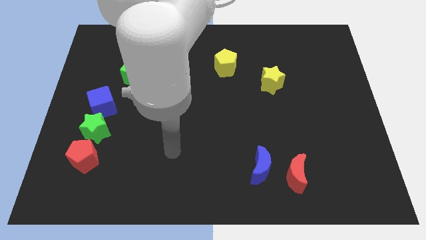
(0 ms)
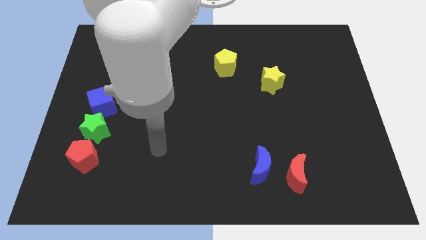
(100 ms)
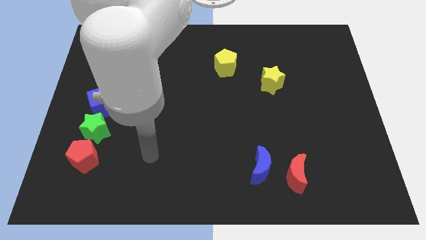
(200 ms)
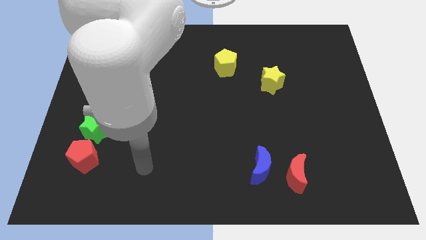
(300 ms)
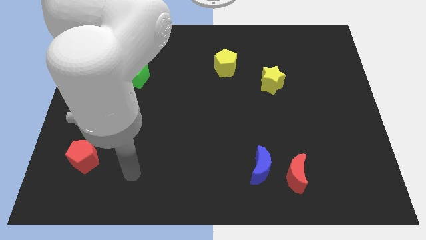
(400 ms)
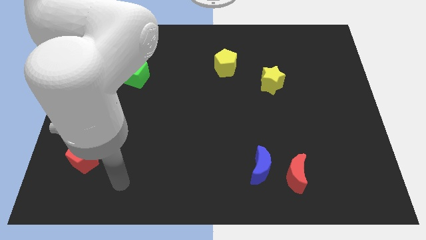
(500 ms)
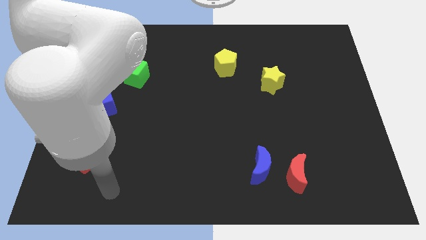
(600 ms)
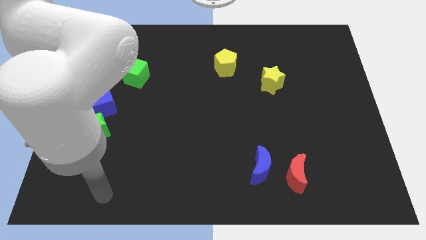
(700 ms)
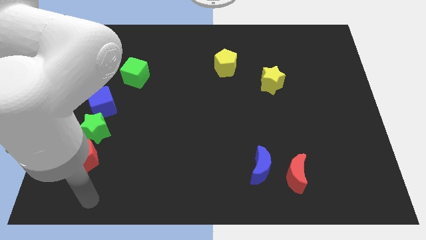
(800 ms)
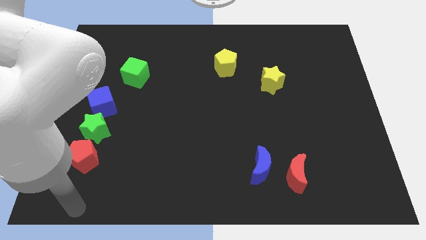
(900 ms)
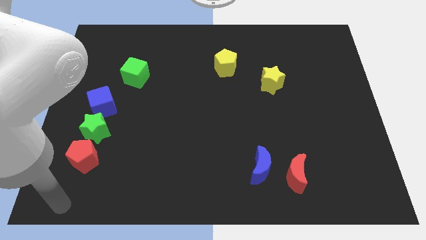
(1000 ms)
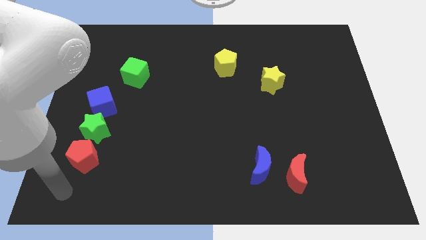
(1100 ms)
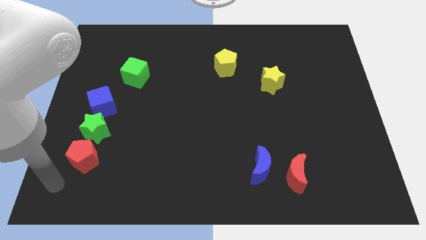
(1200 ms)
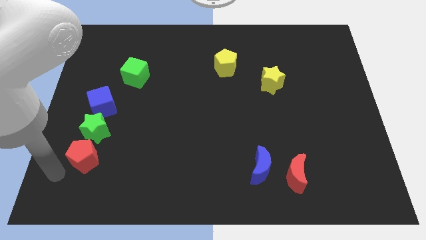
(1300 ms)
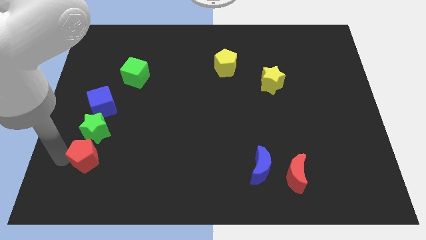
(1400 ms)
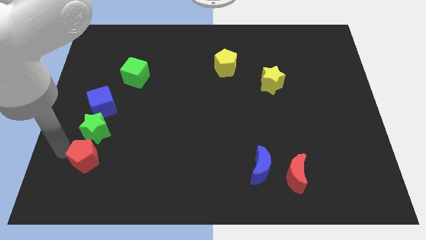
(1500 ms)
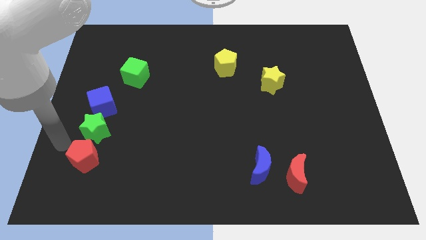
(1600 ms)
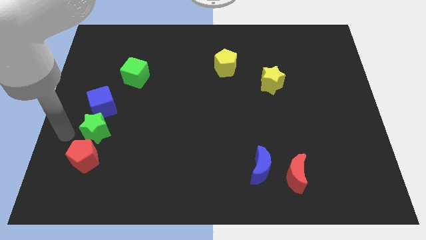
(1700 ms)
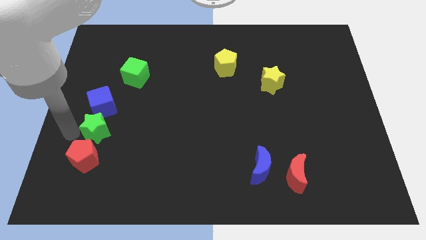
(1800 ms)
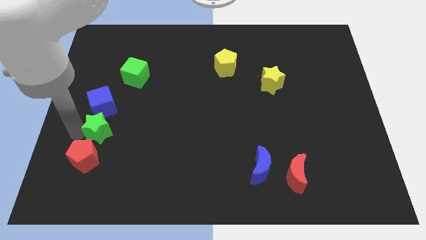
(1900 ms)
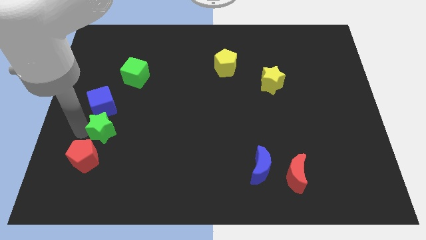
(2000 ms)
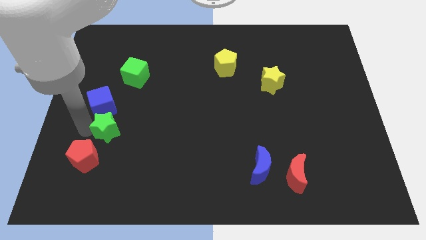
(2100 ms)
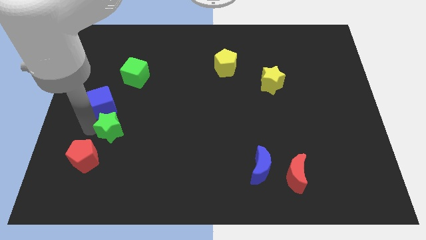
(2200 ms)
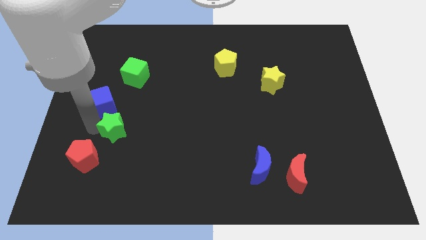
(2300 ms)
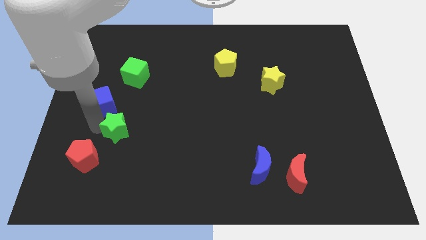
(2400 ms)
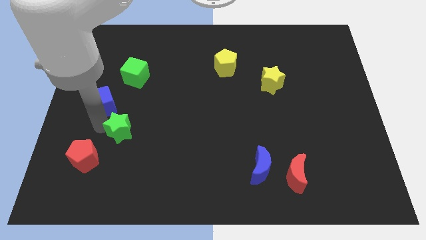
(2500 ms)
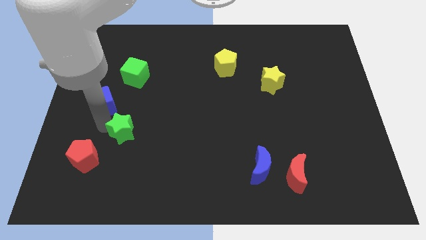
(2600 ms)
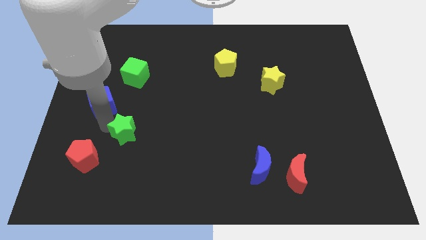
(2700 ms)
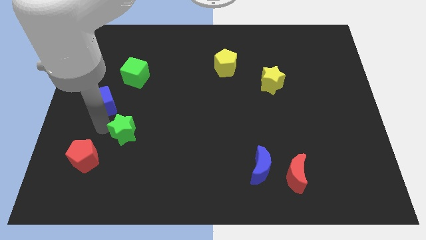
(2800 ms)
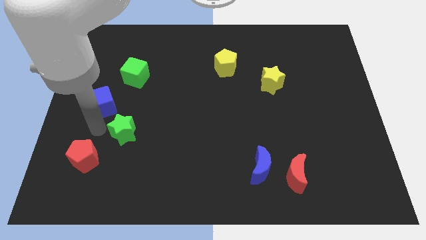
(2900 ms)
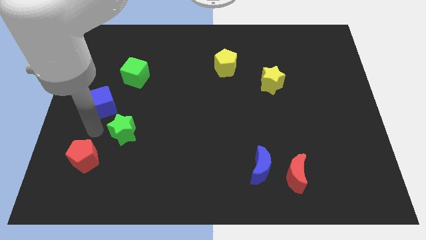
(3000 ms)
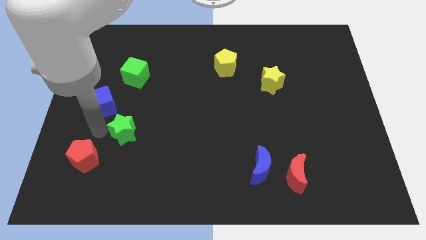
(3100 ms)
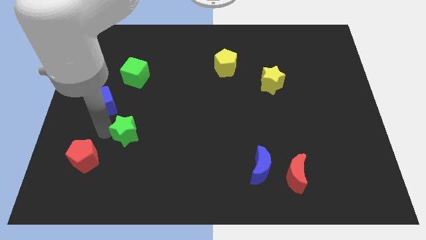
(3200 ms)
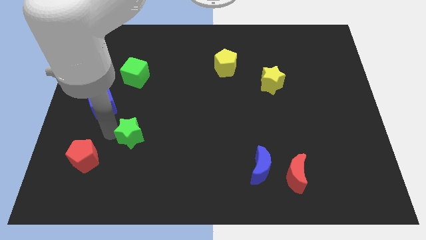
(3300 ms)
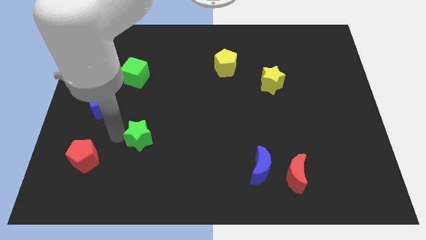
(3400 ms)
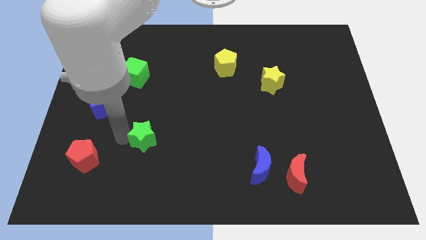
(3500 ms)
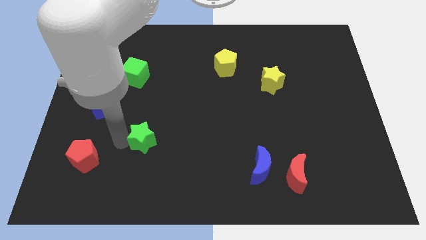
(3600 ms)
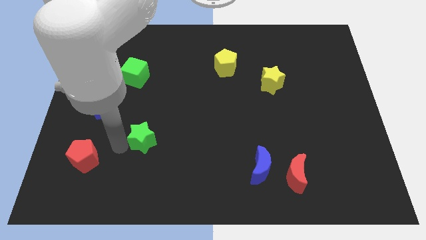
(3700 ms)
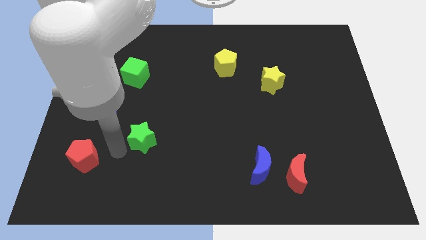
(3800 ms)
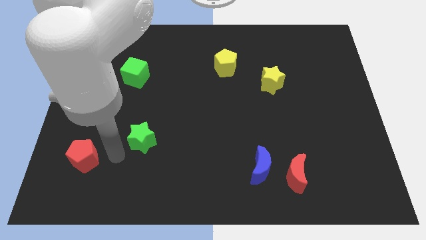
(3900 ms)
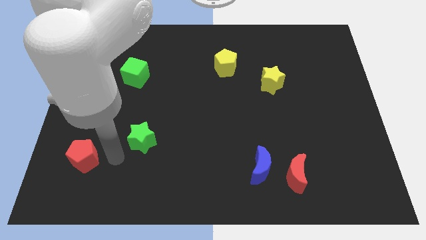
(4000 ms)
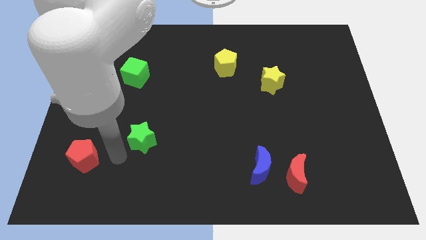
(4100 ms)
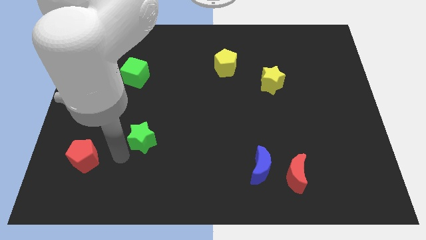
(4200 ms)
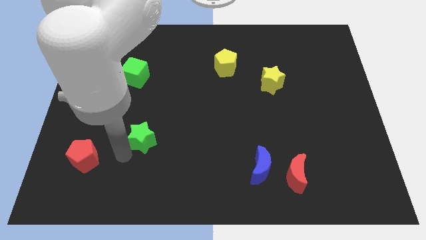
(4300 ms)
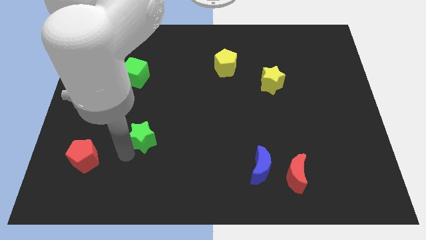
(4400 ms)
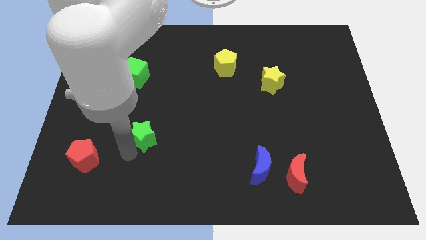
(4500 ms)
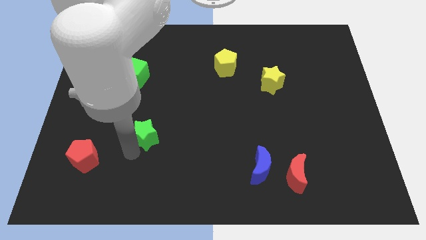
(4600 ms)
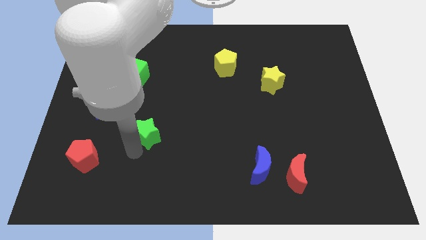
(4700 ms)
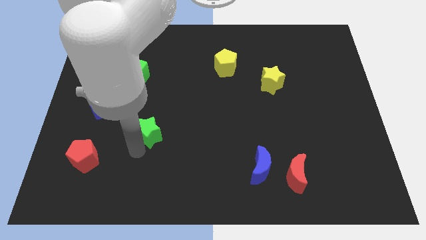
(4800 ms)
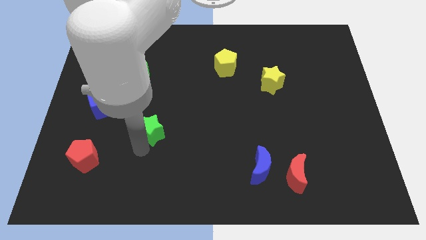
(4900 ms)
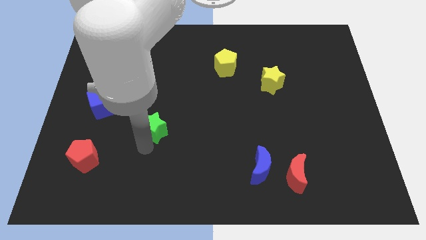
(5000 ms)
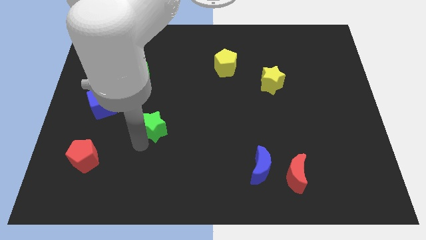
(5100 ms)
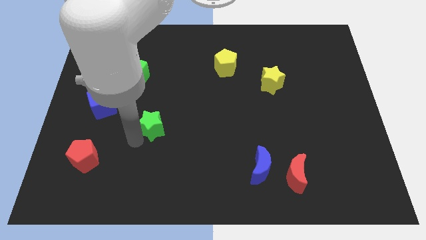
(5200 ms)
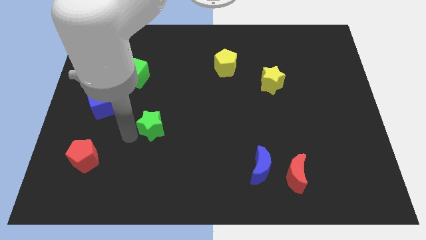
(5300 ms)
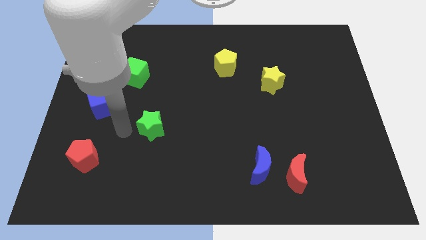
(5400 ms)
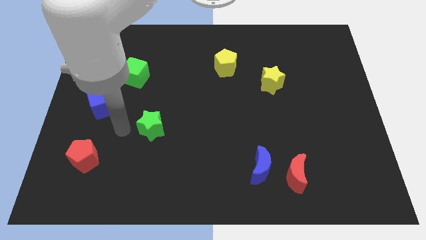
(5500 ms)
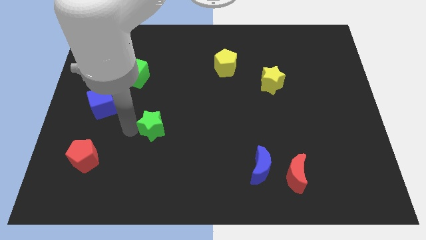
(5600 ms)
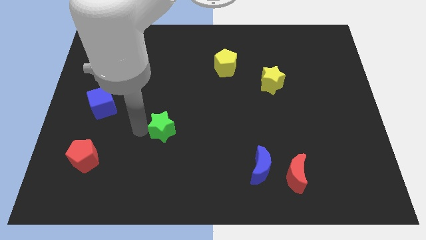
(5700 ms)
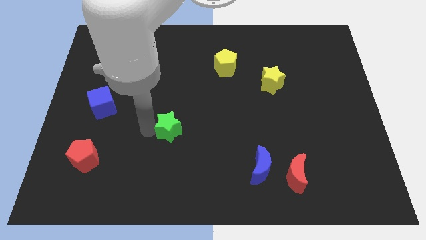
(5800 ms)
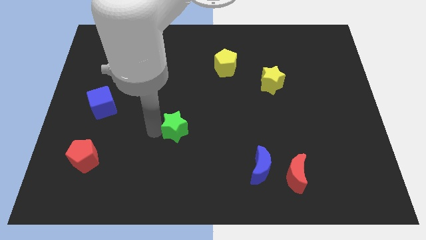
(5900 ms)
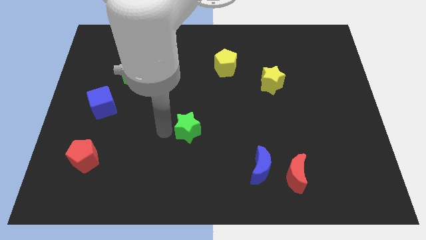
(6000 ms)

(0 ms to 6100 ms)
move the green star to the right

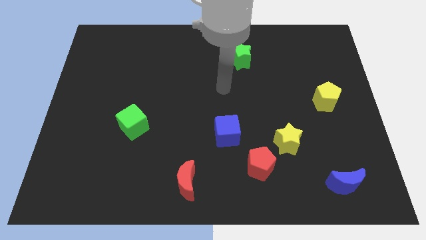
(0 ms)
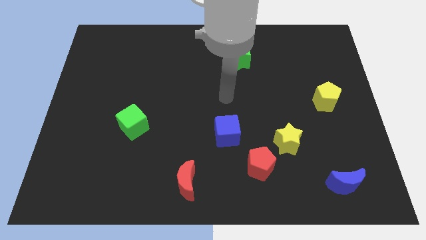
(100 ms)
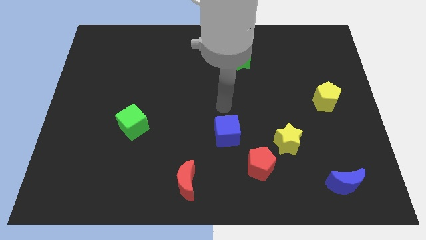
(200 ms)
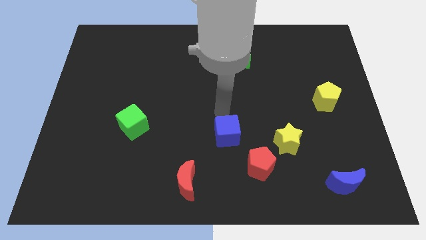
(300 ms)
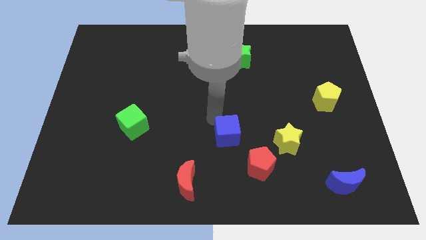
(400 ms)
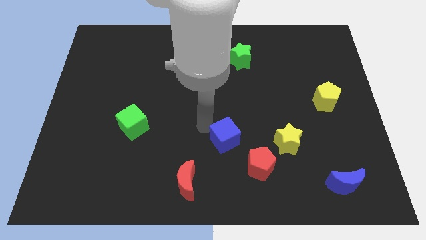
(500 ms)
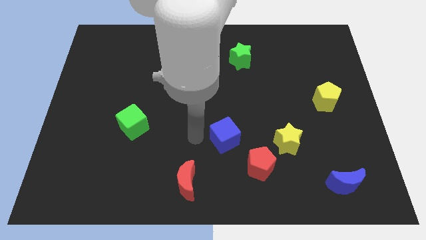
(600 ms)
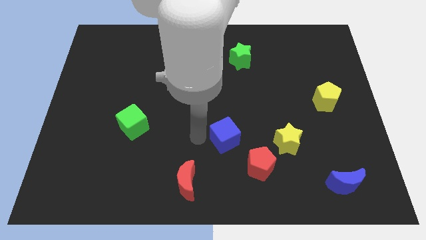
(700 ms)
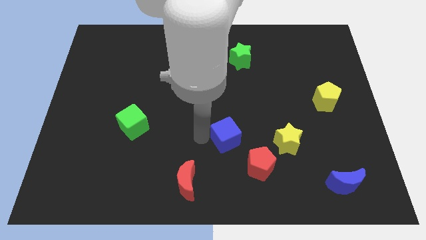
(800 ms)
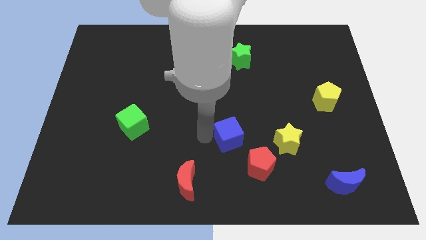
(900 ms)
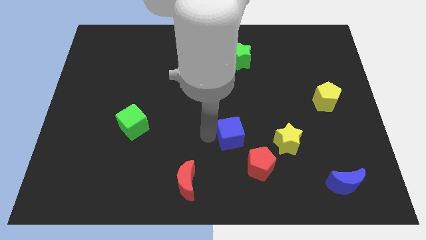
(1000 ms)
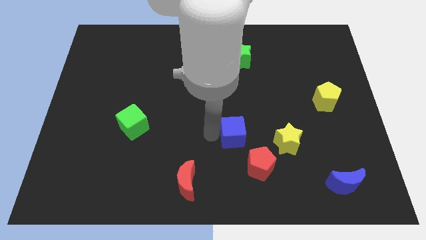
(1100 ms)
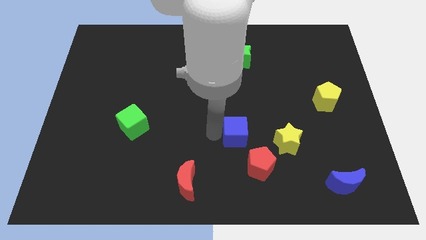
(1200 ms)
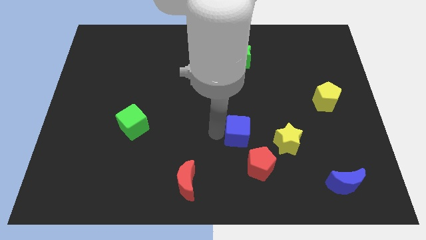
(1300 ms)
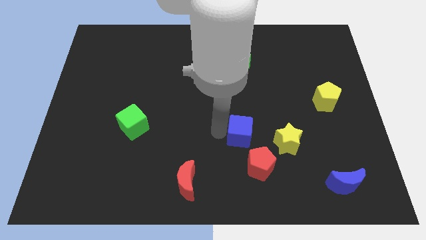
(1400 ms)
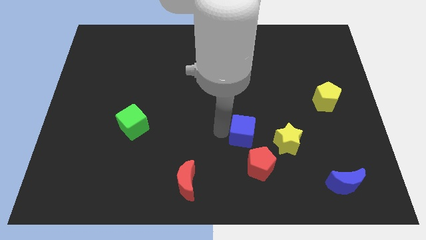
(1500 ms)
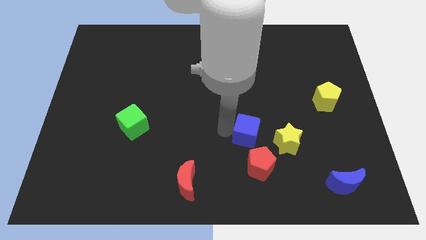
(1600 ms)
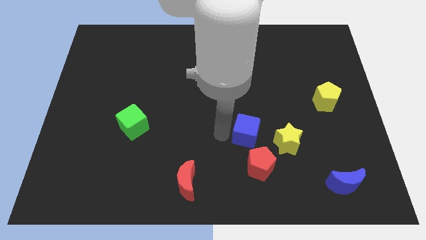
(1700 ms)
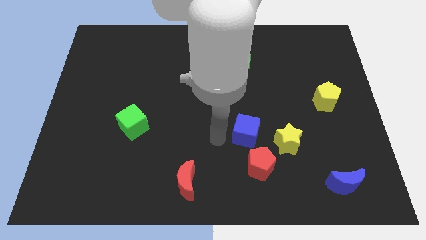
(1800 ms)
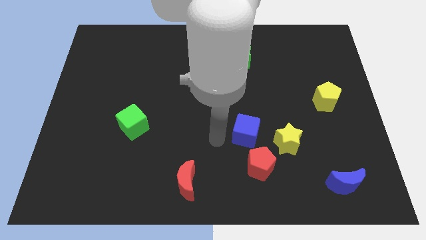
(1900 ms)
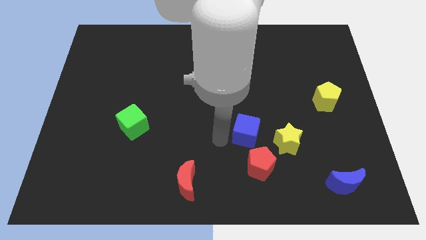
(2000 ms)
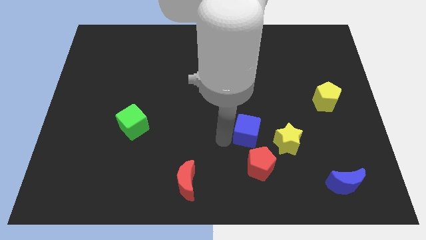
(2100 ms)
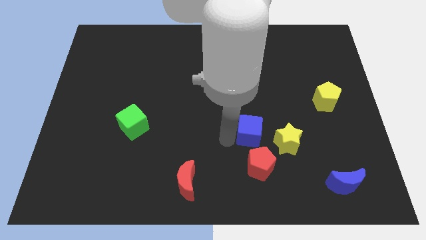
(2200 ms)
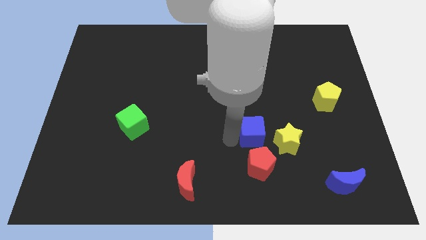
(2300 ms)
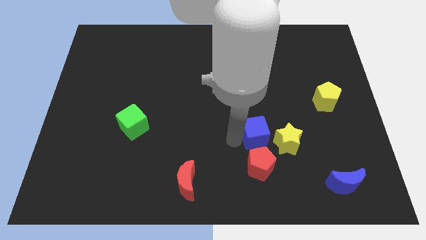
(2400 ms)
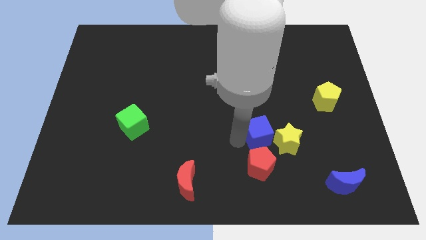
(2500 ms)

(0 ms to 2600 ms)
slightly push the blue cube right
